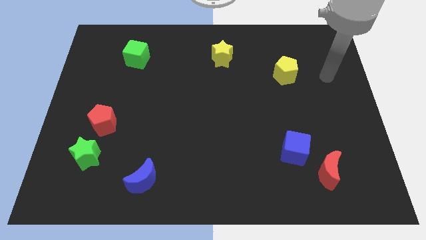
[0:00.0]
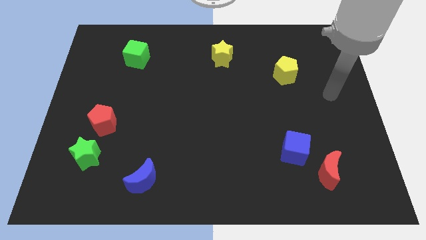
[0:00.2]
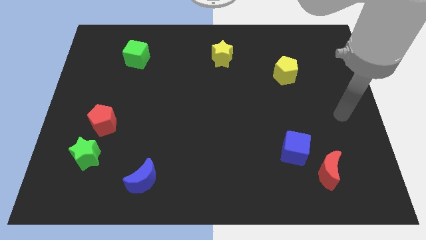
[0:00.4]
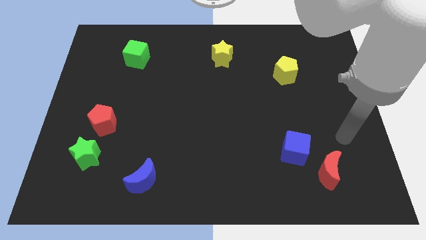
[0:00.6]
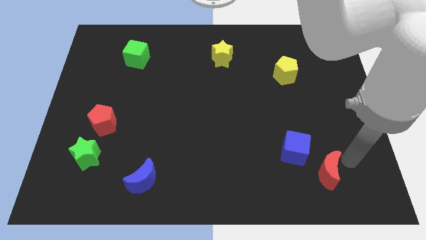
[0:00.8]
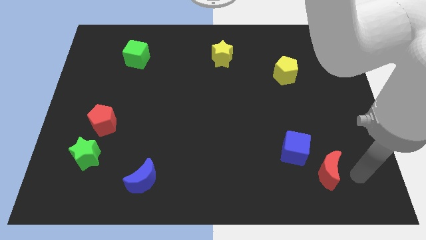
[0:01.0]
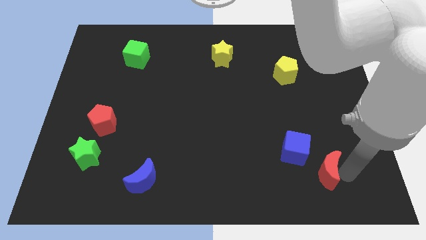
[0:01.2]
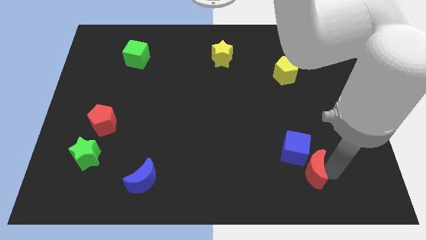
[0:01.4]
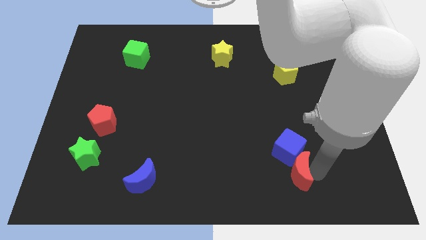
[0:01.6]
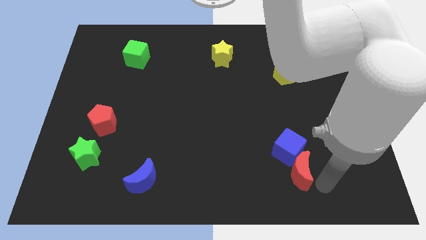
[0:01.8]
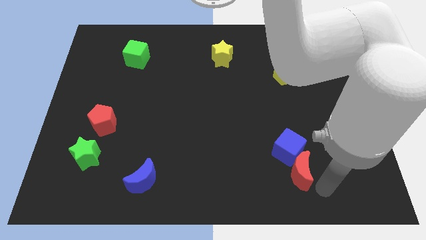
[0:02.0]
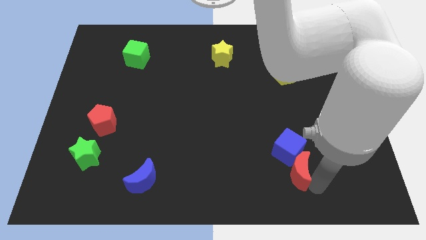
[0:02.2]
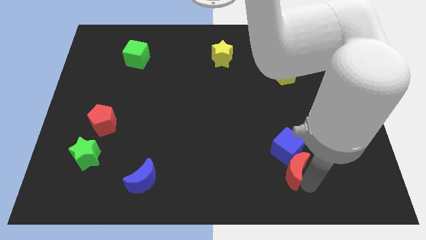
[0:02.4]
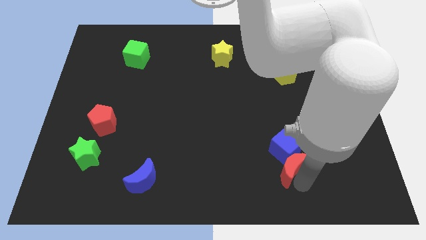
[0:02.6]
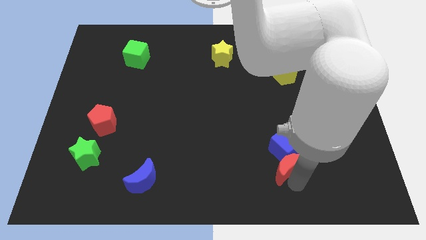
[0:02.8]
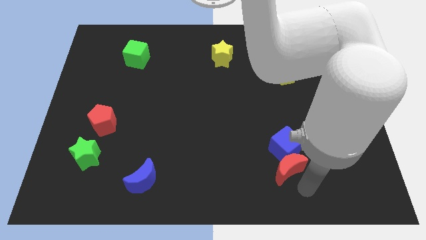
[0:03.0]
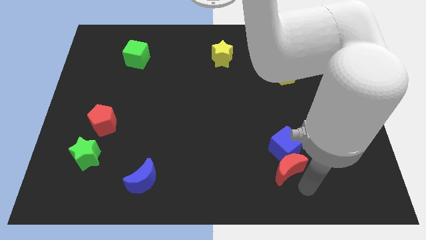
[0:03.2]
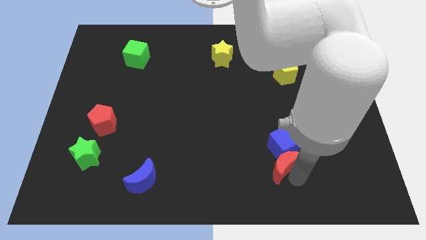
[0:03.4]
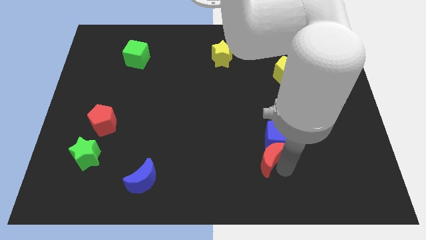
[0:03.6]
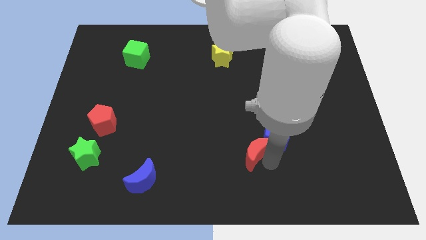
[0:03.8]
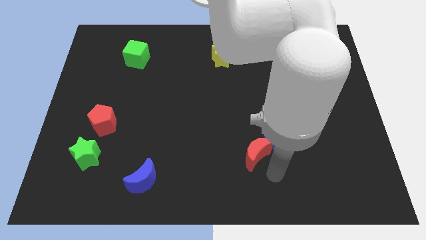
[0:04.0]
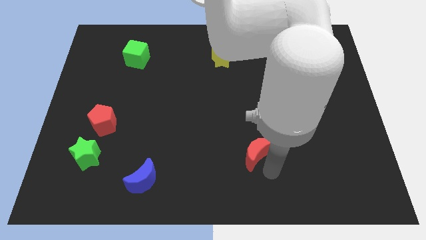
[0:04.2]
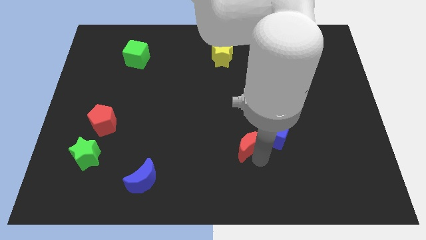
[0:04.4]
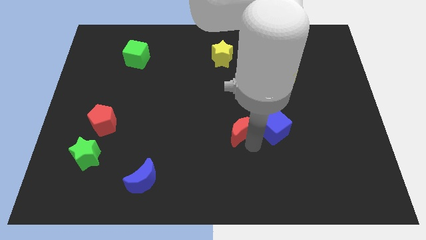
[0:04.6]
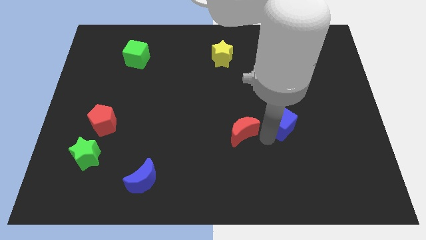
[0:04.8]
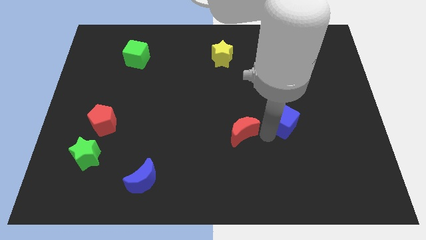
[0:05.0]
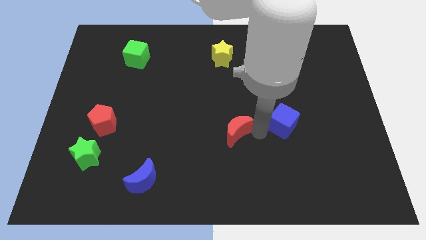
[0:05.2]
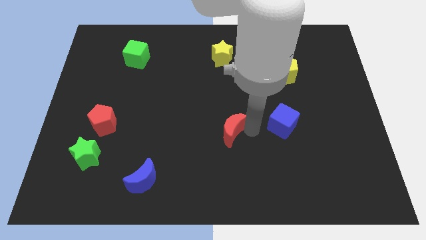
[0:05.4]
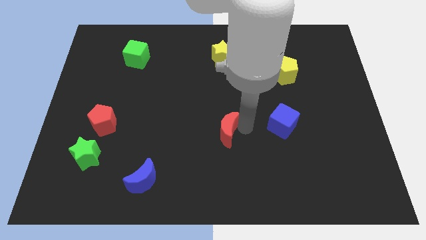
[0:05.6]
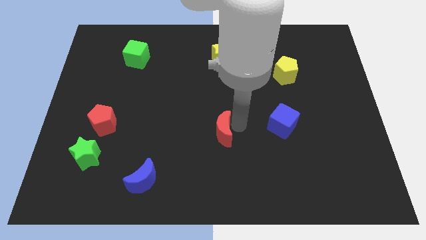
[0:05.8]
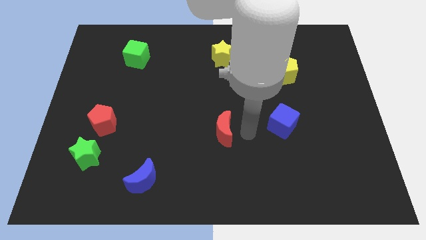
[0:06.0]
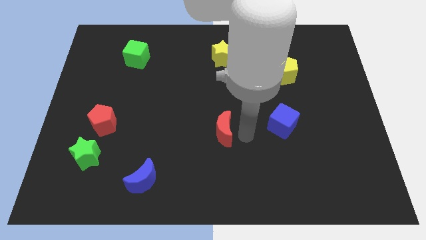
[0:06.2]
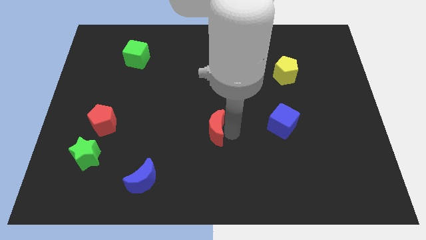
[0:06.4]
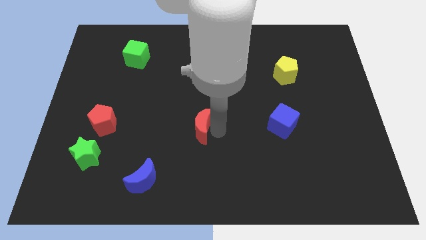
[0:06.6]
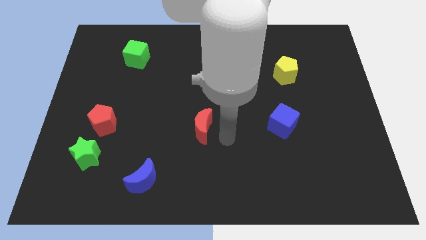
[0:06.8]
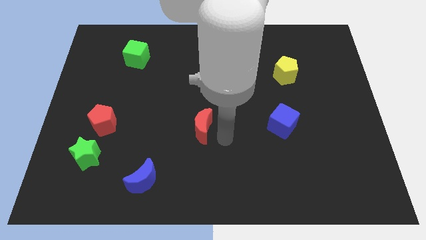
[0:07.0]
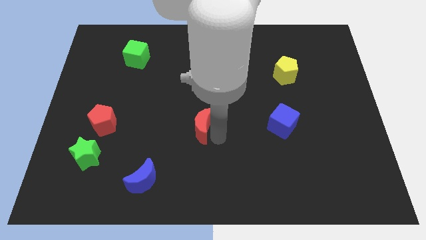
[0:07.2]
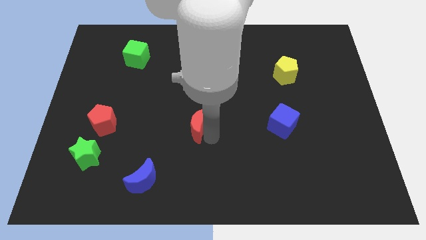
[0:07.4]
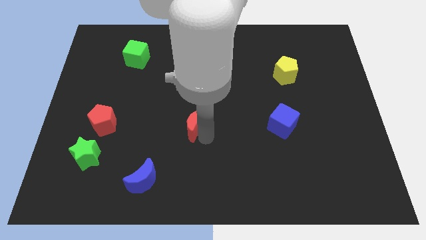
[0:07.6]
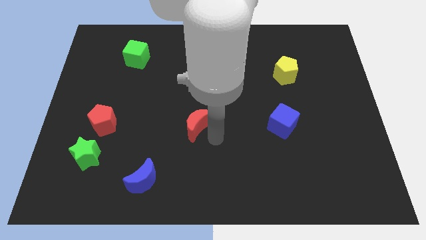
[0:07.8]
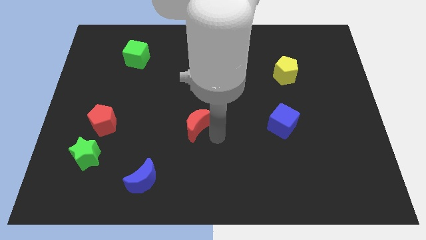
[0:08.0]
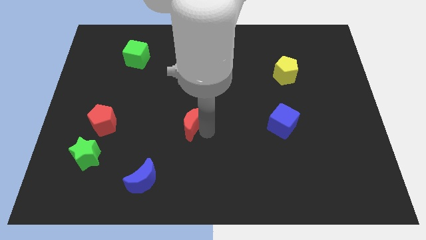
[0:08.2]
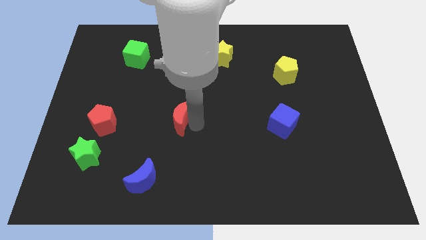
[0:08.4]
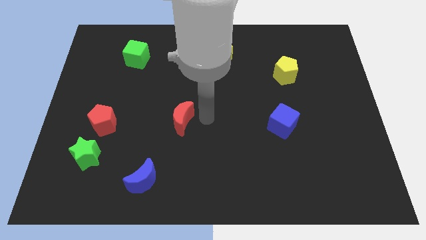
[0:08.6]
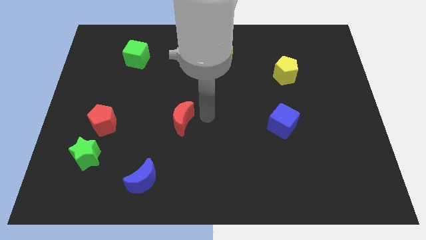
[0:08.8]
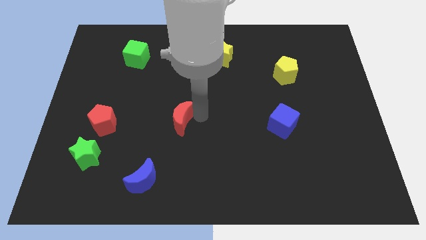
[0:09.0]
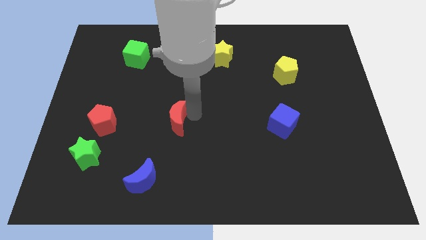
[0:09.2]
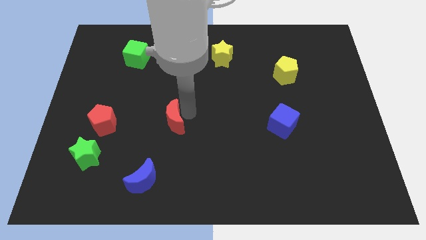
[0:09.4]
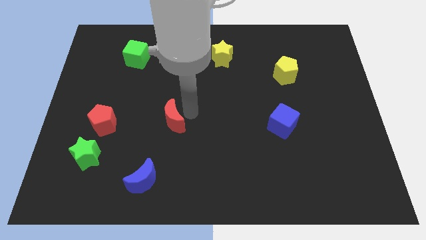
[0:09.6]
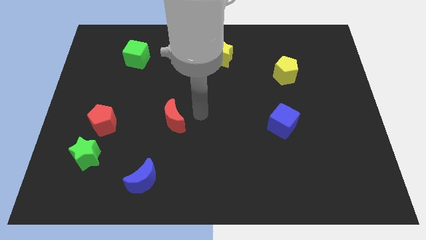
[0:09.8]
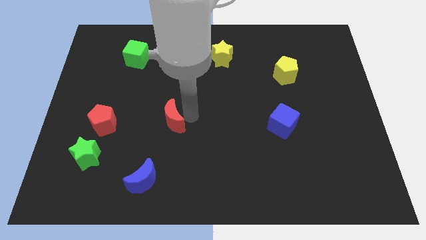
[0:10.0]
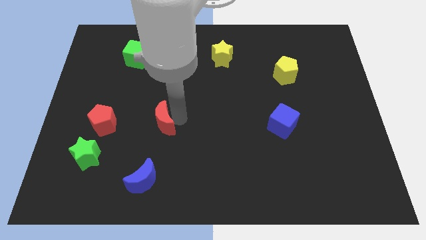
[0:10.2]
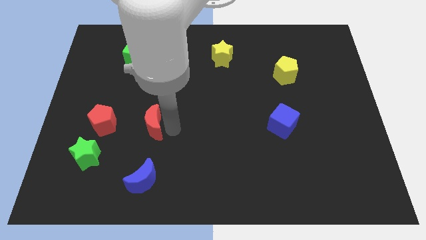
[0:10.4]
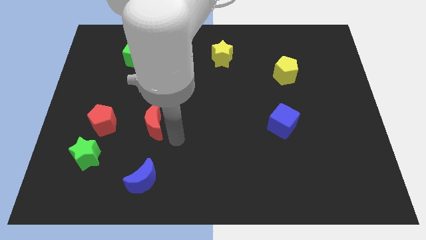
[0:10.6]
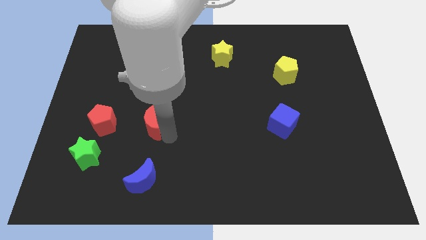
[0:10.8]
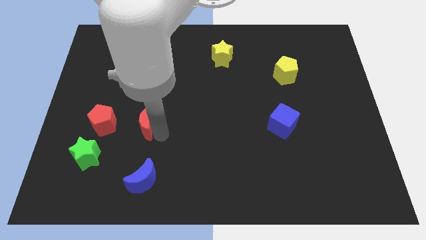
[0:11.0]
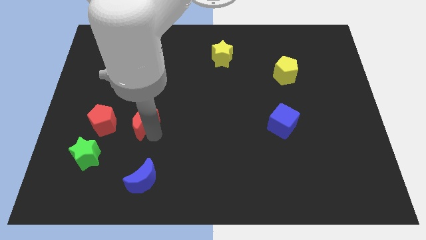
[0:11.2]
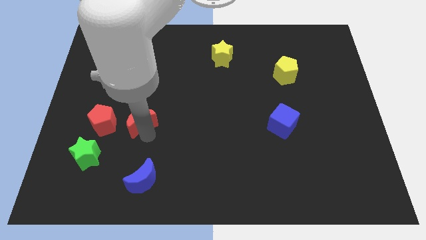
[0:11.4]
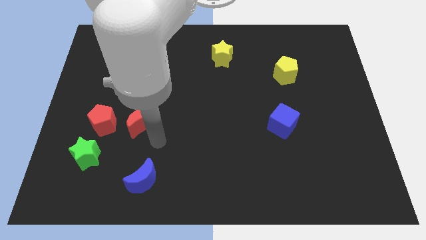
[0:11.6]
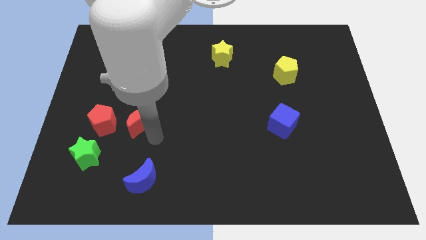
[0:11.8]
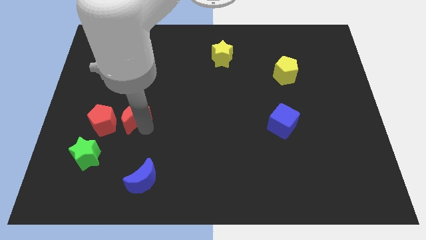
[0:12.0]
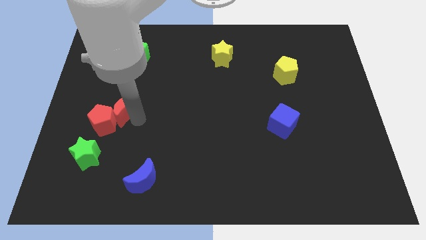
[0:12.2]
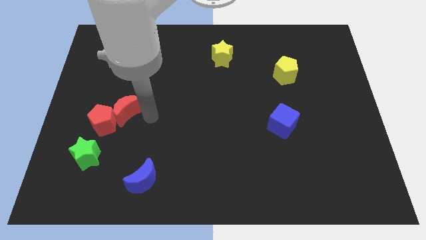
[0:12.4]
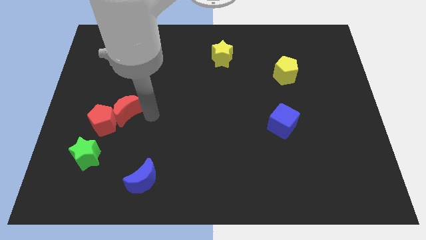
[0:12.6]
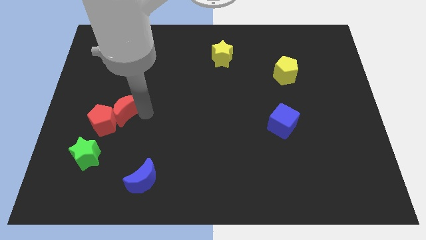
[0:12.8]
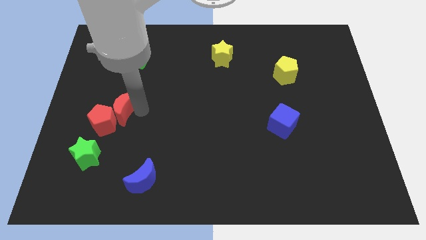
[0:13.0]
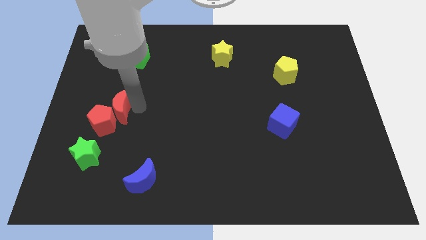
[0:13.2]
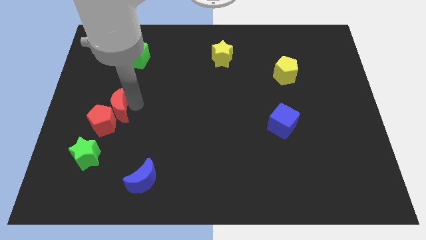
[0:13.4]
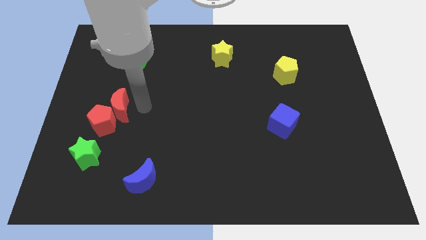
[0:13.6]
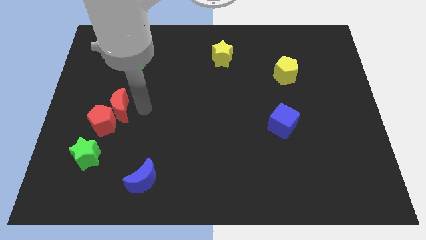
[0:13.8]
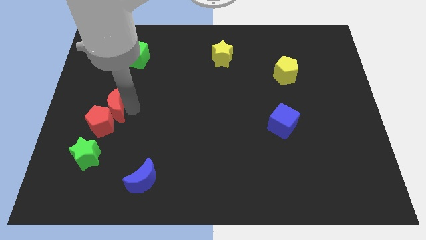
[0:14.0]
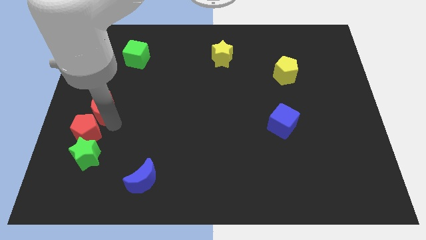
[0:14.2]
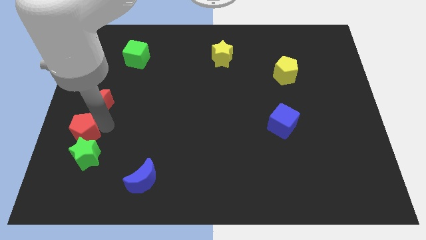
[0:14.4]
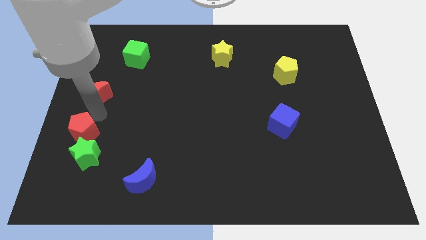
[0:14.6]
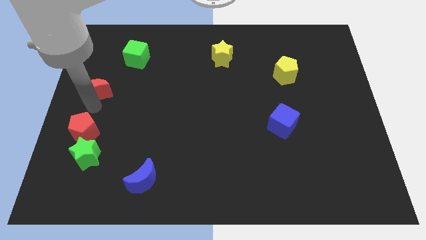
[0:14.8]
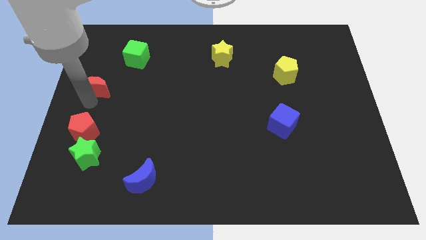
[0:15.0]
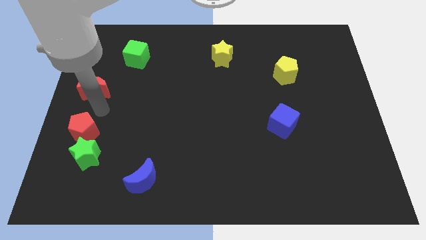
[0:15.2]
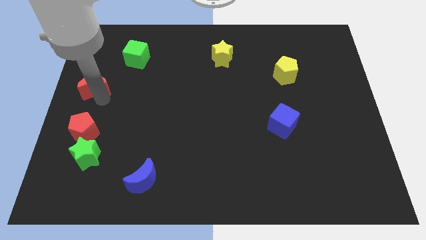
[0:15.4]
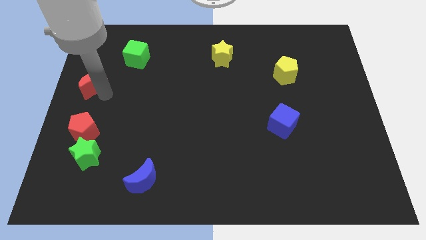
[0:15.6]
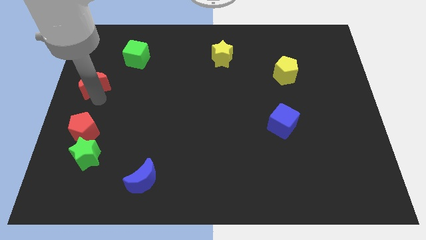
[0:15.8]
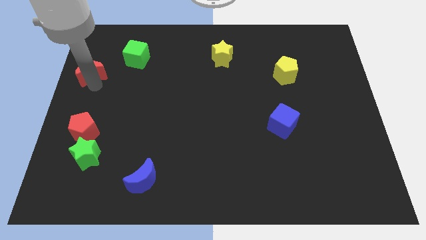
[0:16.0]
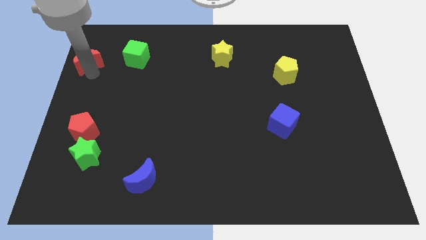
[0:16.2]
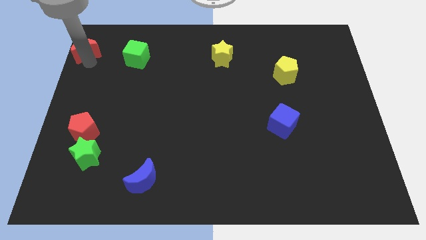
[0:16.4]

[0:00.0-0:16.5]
slide the red moon to the top left corner
